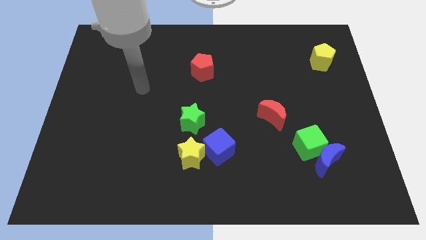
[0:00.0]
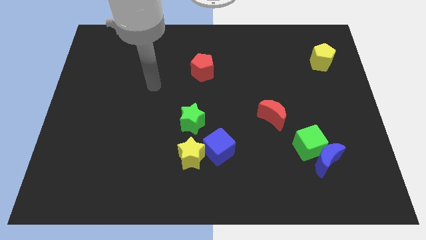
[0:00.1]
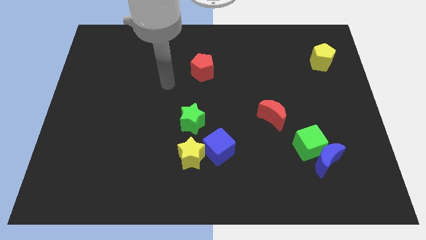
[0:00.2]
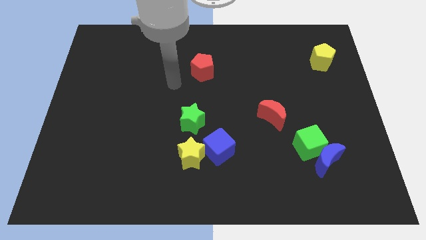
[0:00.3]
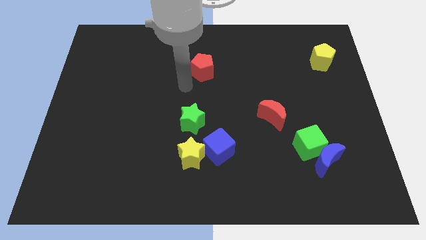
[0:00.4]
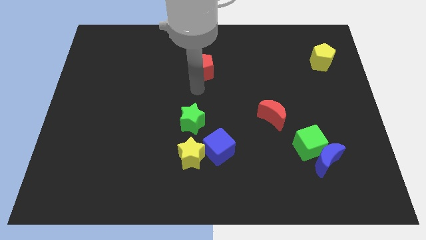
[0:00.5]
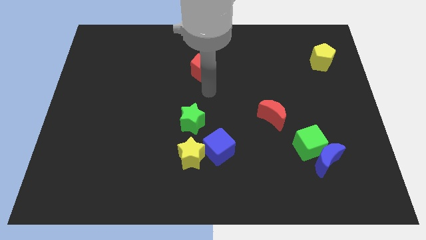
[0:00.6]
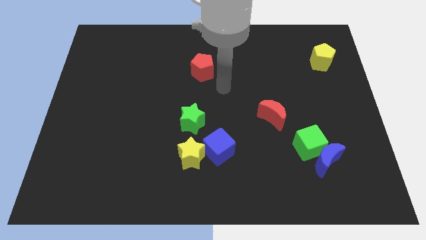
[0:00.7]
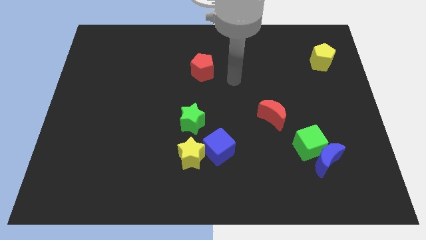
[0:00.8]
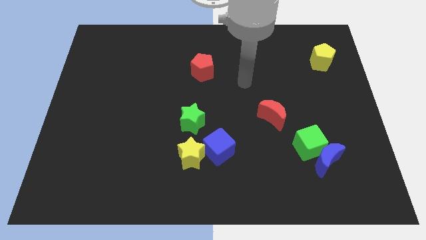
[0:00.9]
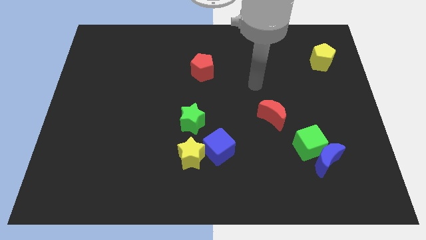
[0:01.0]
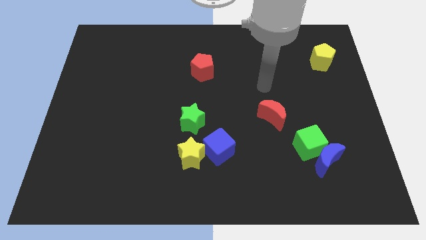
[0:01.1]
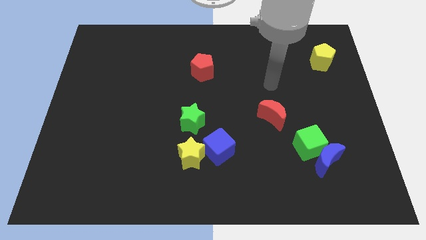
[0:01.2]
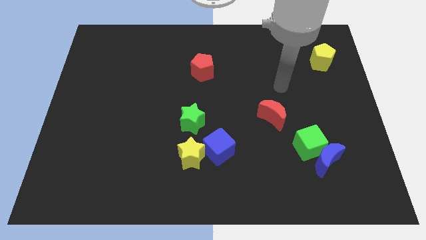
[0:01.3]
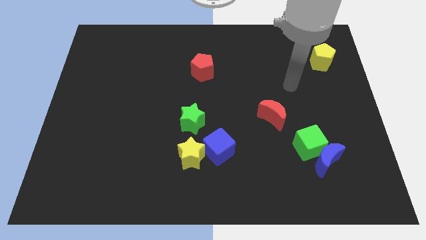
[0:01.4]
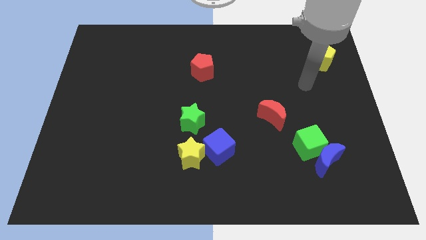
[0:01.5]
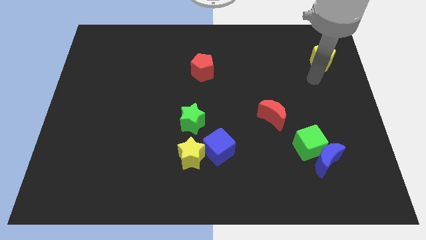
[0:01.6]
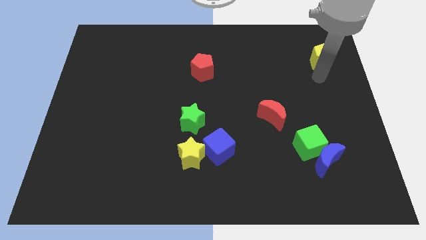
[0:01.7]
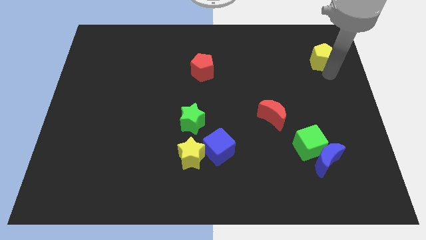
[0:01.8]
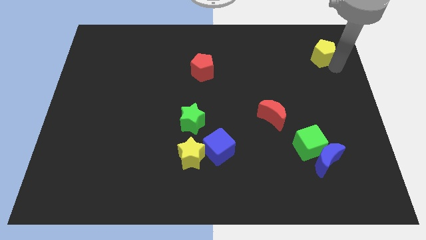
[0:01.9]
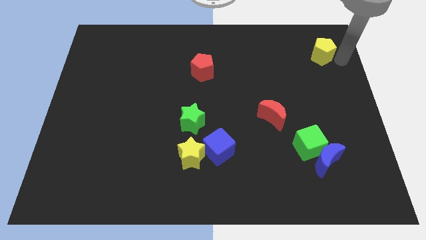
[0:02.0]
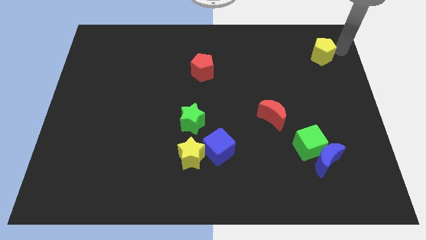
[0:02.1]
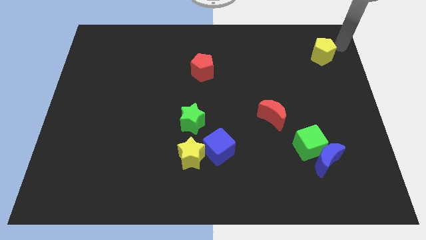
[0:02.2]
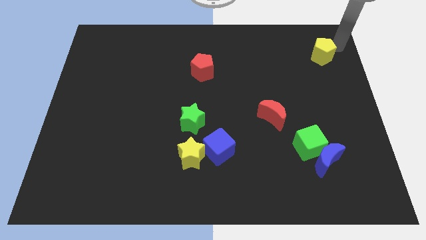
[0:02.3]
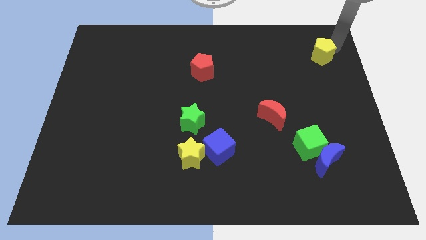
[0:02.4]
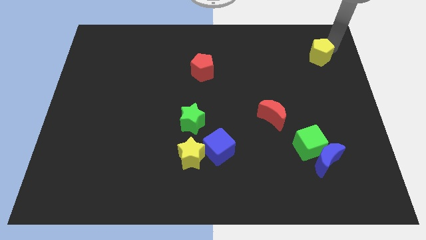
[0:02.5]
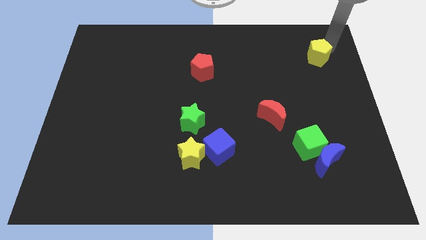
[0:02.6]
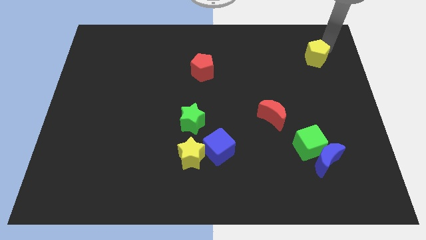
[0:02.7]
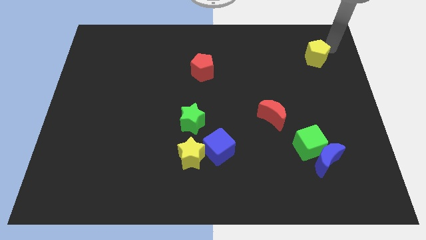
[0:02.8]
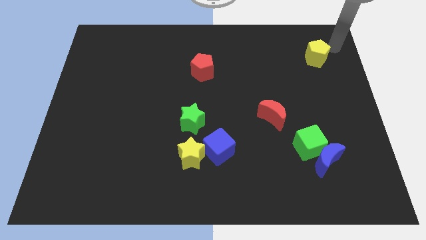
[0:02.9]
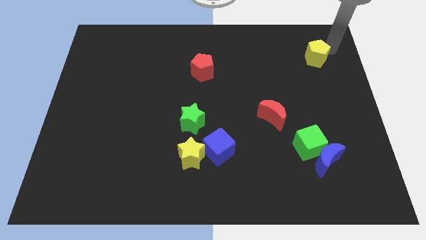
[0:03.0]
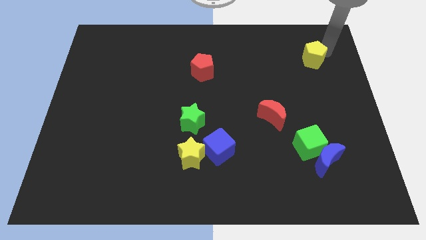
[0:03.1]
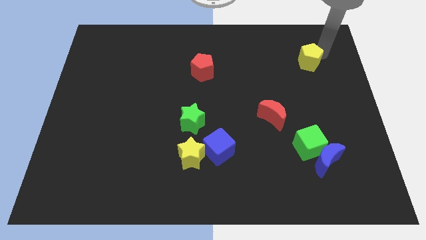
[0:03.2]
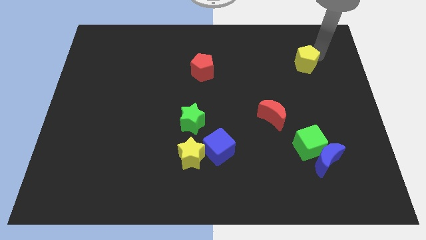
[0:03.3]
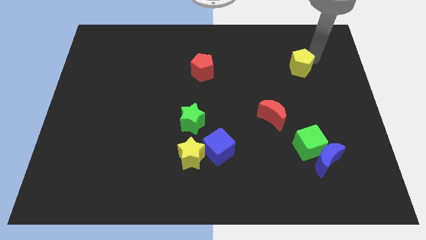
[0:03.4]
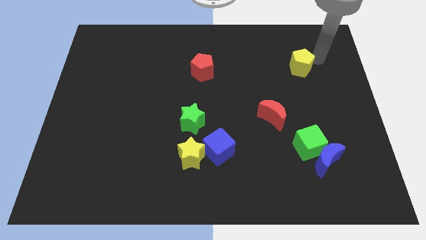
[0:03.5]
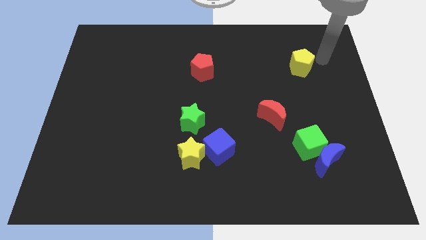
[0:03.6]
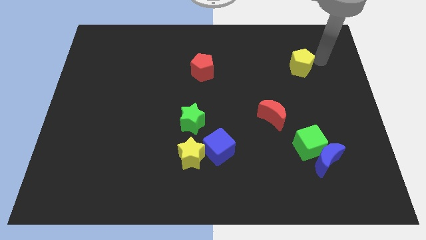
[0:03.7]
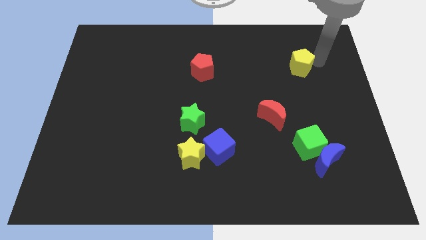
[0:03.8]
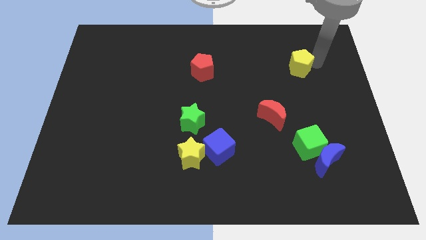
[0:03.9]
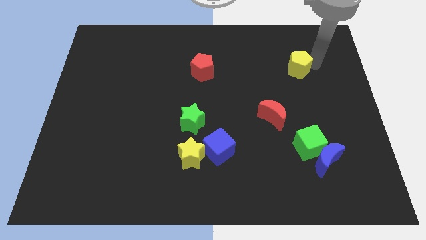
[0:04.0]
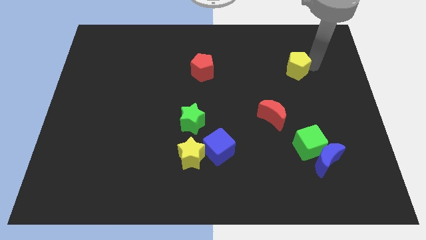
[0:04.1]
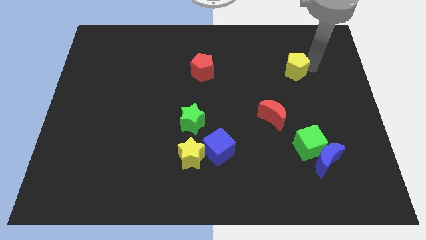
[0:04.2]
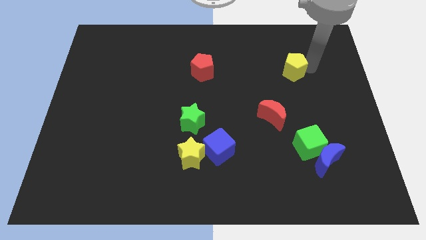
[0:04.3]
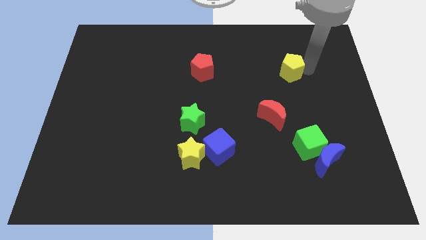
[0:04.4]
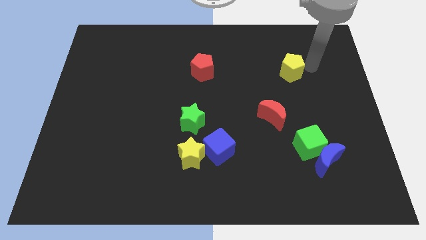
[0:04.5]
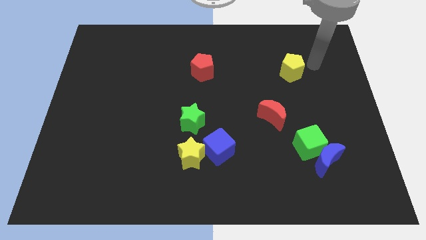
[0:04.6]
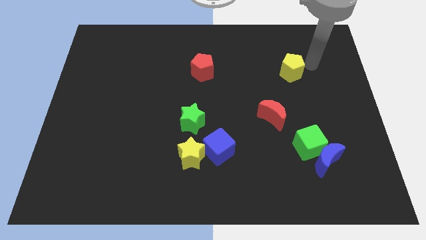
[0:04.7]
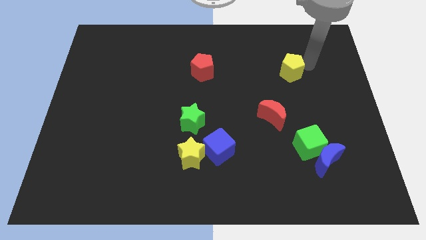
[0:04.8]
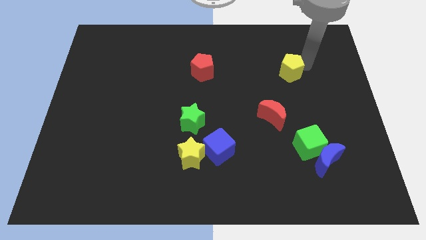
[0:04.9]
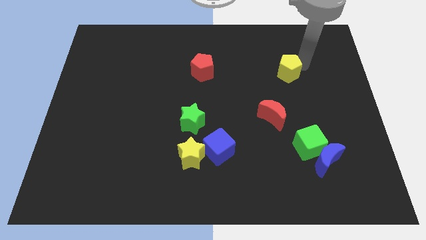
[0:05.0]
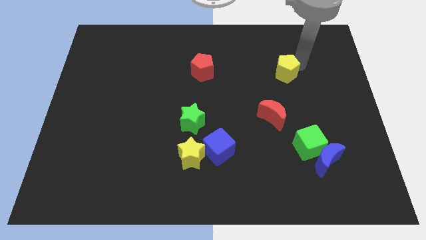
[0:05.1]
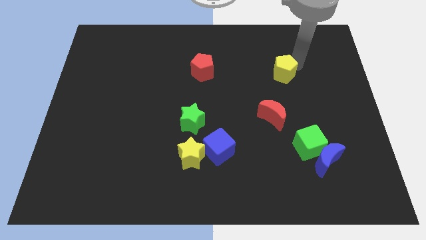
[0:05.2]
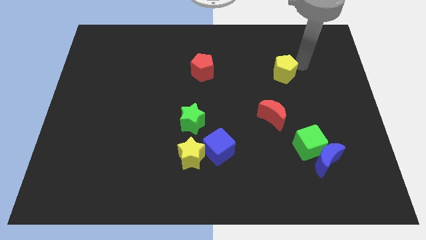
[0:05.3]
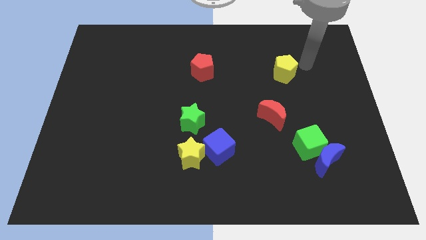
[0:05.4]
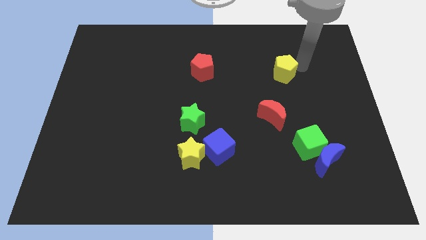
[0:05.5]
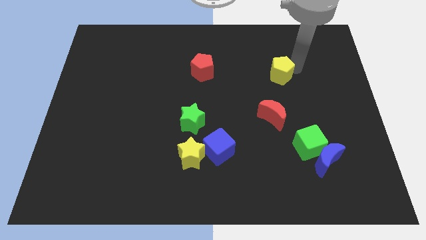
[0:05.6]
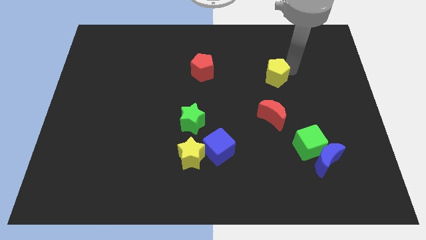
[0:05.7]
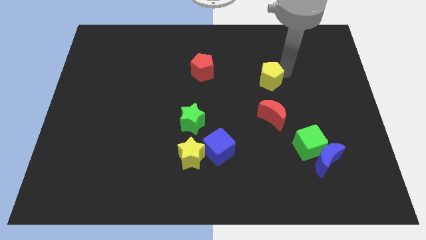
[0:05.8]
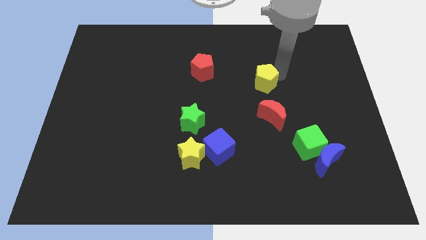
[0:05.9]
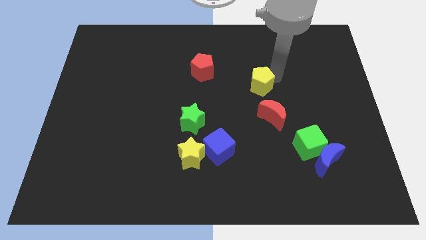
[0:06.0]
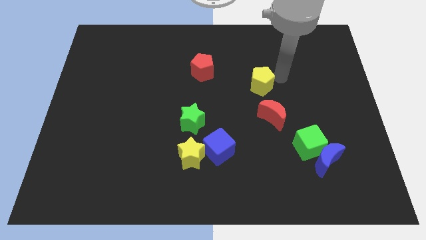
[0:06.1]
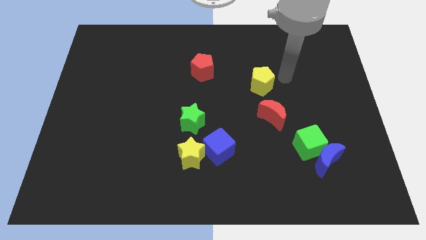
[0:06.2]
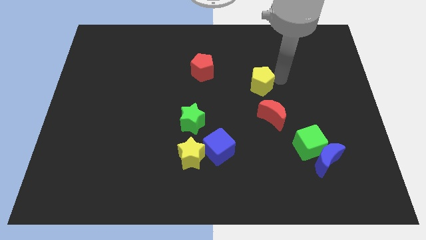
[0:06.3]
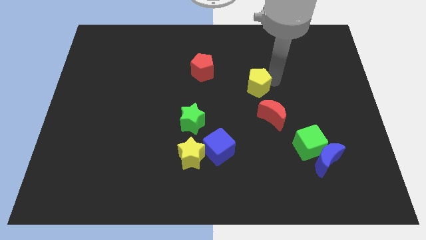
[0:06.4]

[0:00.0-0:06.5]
slide the yellow pentagon to the middle of the board

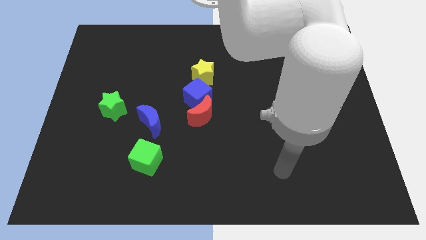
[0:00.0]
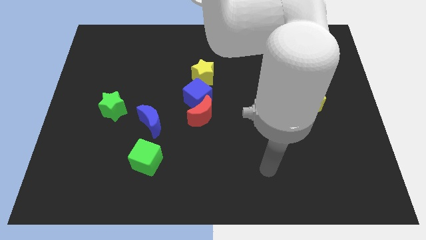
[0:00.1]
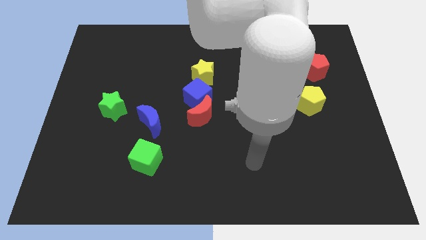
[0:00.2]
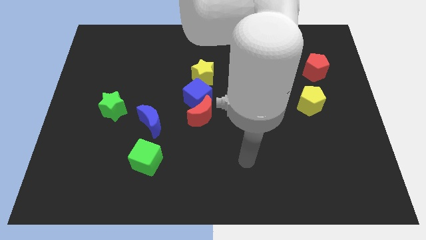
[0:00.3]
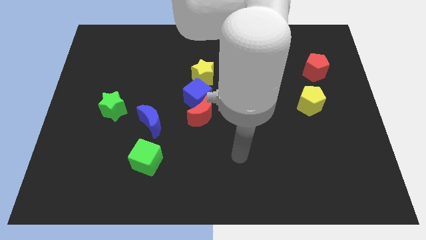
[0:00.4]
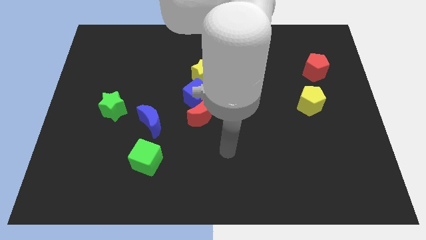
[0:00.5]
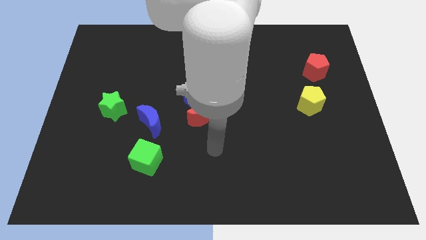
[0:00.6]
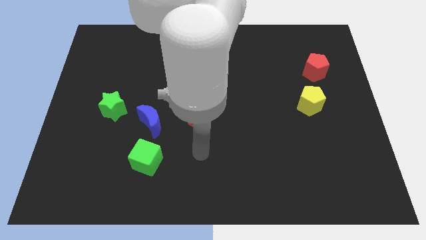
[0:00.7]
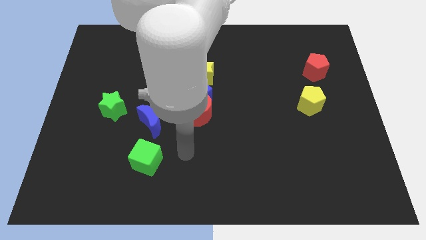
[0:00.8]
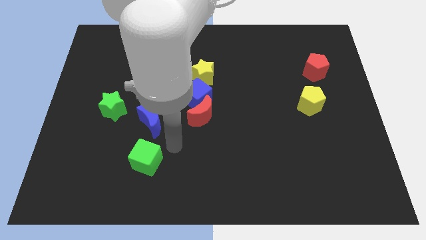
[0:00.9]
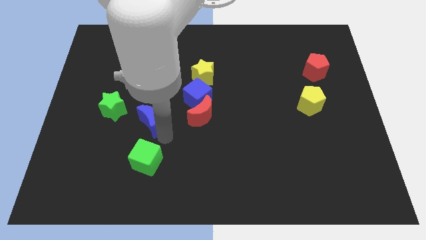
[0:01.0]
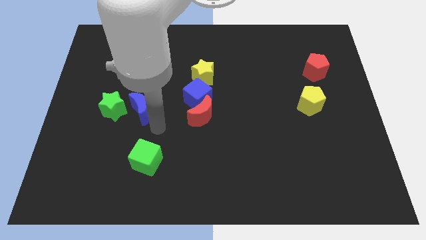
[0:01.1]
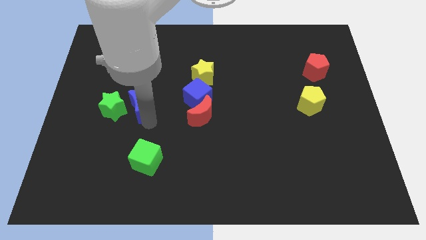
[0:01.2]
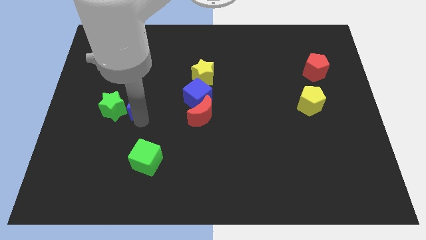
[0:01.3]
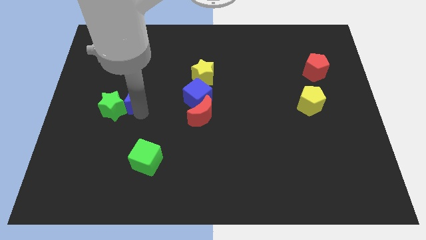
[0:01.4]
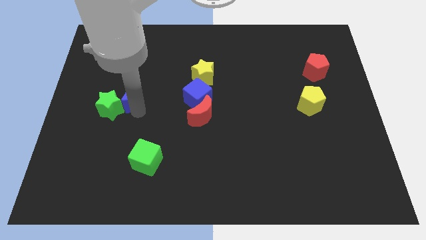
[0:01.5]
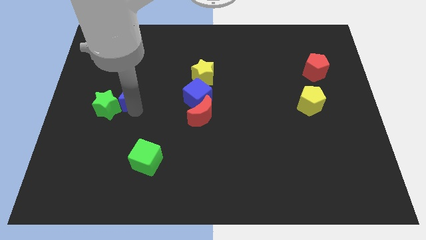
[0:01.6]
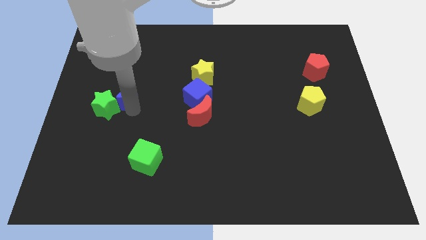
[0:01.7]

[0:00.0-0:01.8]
put the green star to the center left
